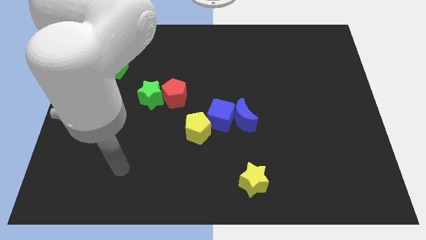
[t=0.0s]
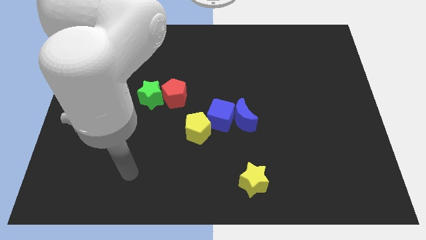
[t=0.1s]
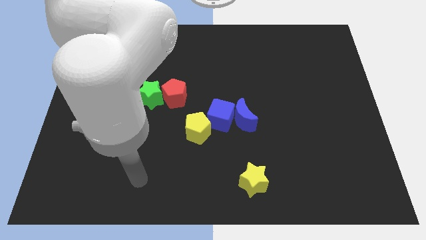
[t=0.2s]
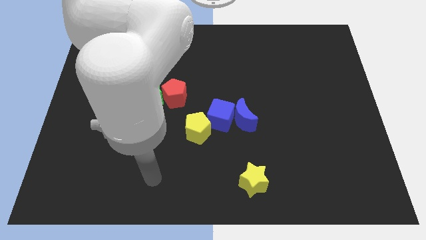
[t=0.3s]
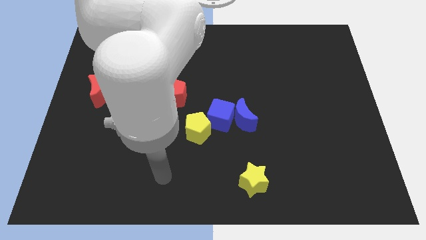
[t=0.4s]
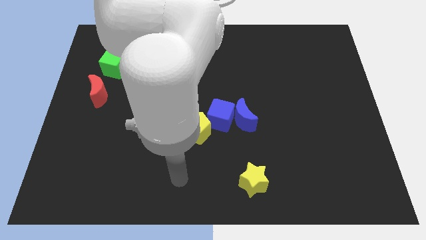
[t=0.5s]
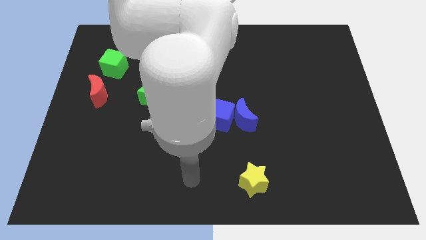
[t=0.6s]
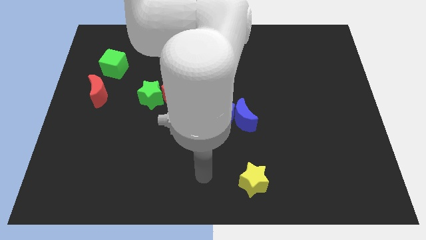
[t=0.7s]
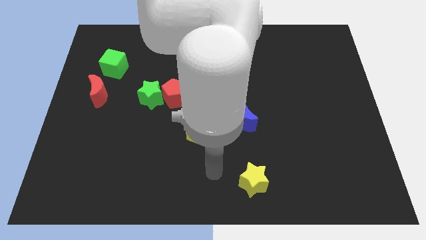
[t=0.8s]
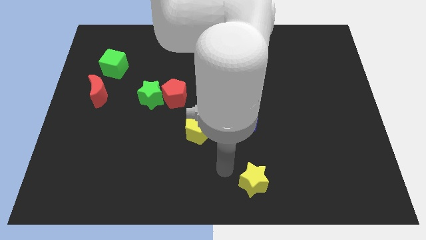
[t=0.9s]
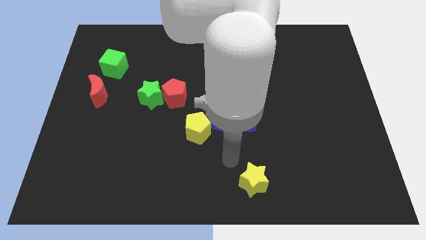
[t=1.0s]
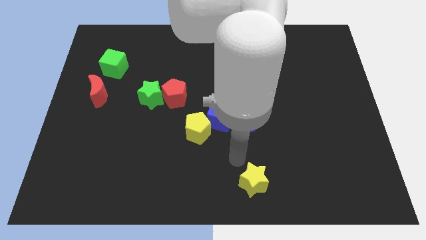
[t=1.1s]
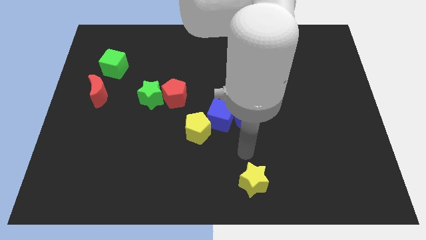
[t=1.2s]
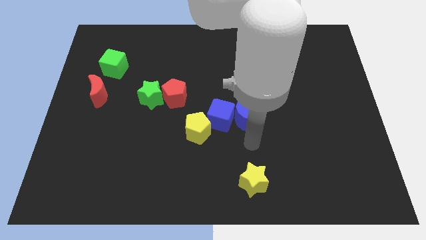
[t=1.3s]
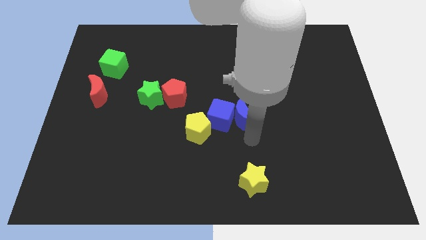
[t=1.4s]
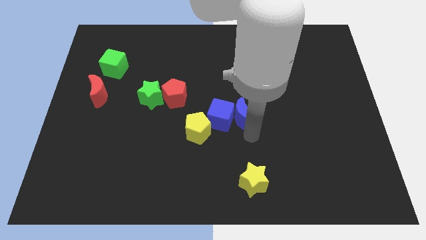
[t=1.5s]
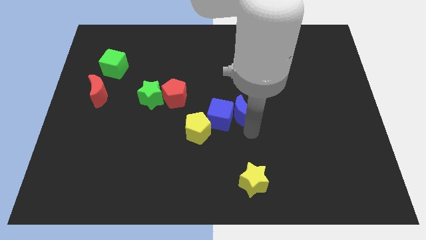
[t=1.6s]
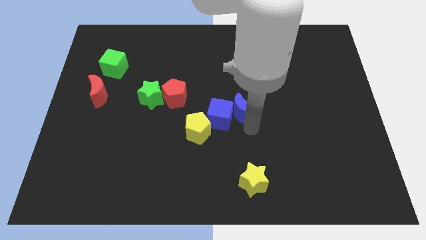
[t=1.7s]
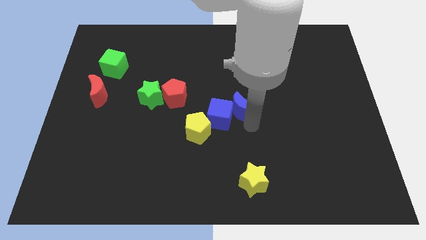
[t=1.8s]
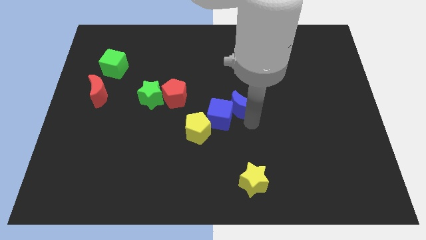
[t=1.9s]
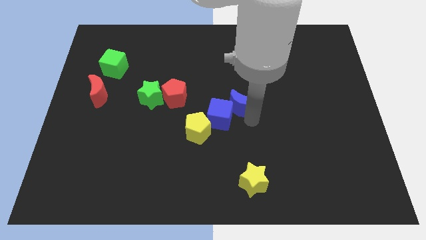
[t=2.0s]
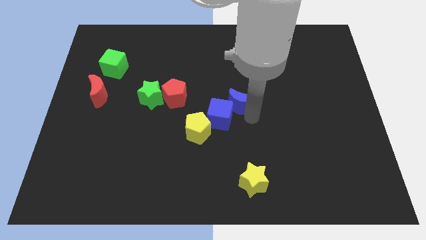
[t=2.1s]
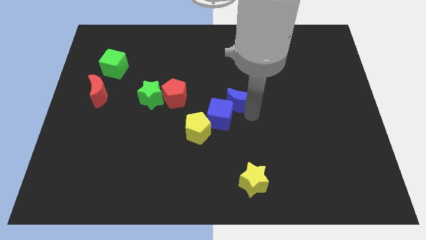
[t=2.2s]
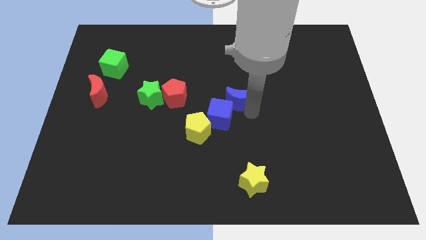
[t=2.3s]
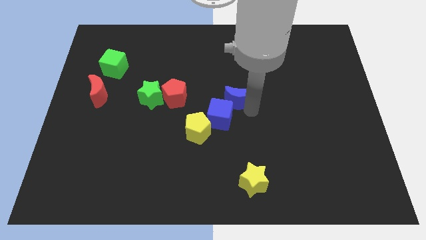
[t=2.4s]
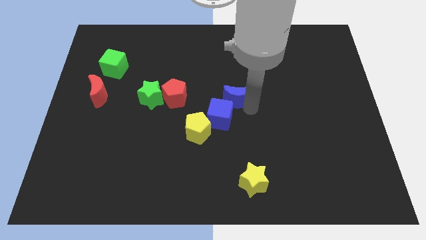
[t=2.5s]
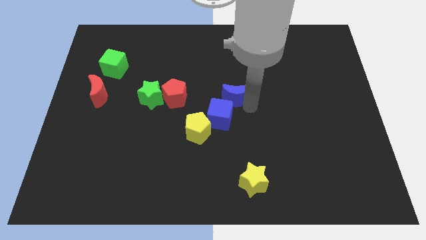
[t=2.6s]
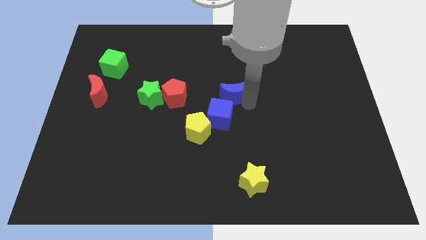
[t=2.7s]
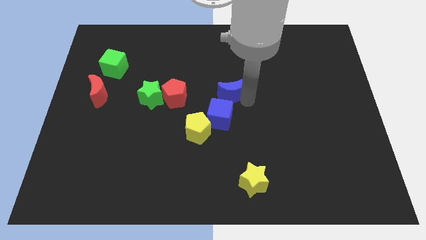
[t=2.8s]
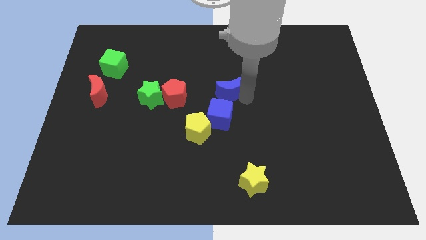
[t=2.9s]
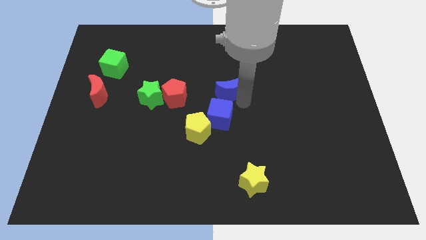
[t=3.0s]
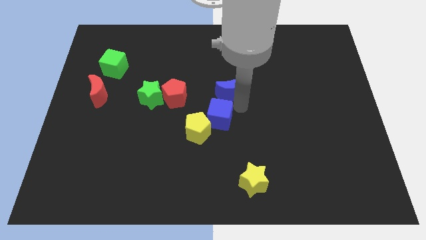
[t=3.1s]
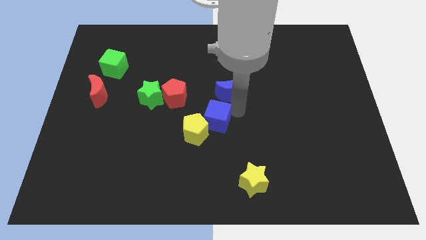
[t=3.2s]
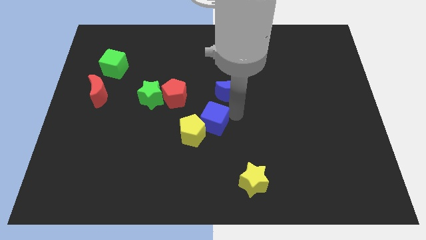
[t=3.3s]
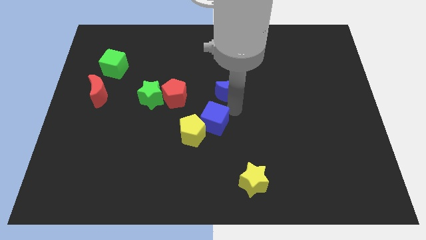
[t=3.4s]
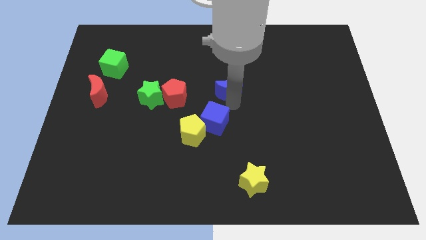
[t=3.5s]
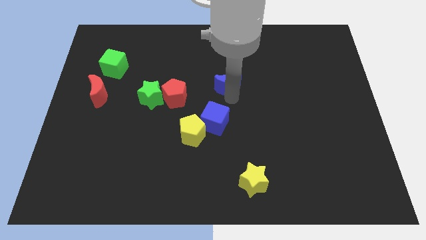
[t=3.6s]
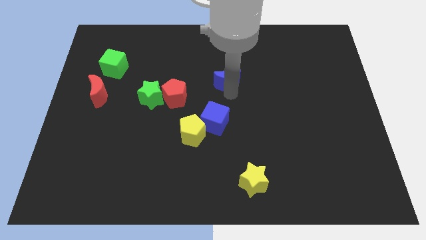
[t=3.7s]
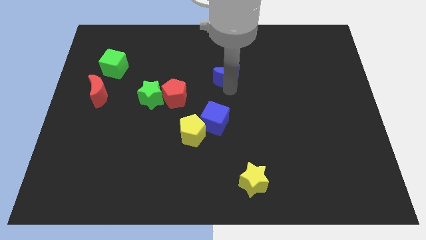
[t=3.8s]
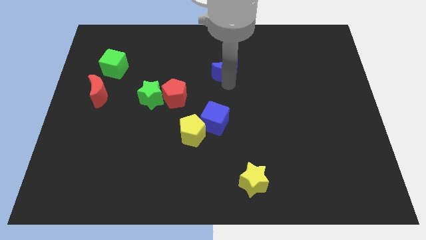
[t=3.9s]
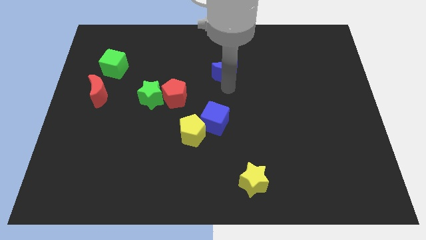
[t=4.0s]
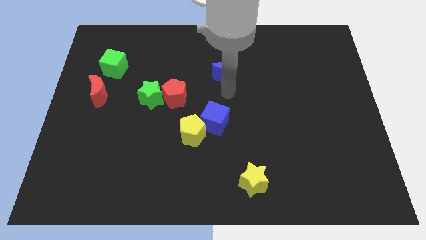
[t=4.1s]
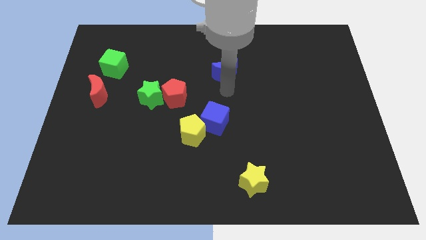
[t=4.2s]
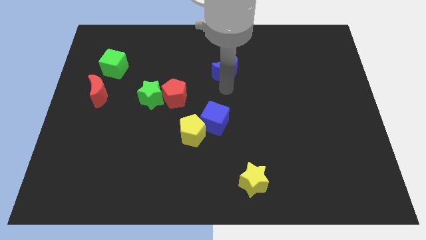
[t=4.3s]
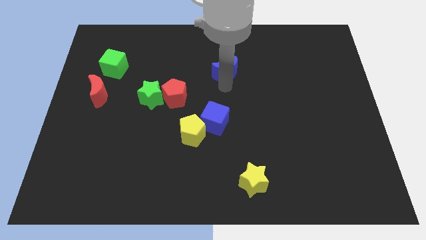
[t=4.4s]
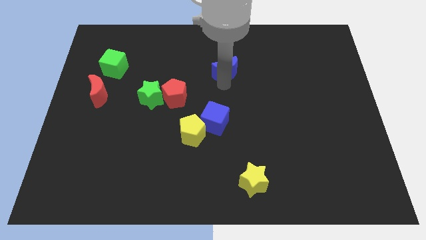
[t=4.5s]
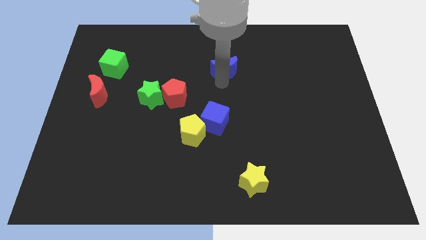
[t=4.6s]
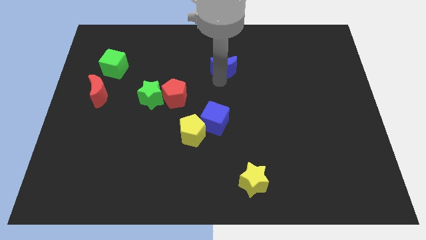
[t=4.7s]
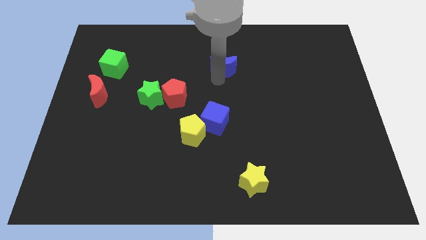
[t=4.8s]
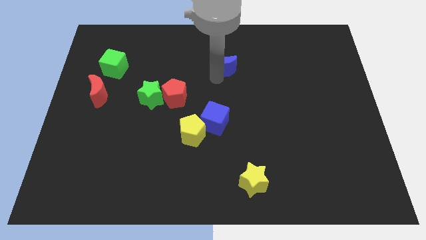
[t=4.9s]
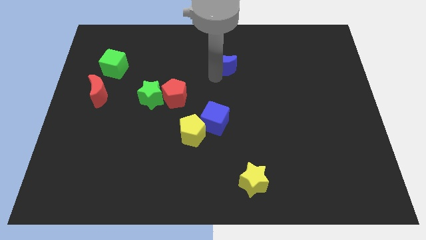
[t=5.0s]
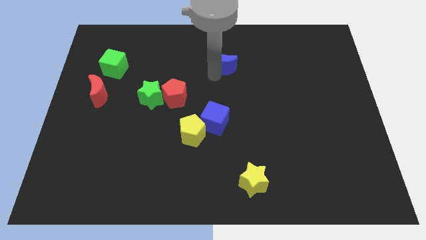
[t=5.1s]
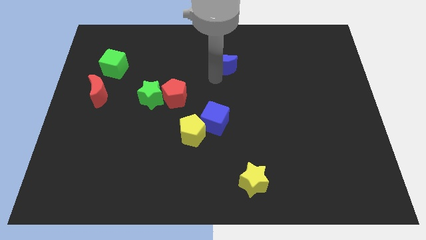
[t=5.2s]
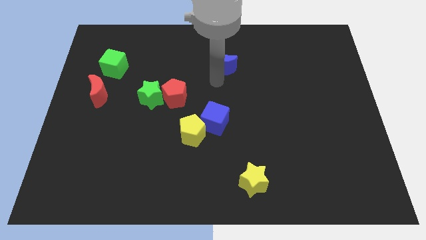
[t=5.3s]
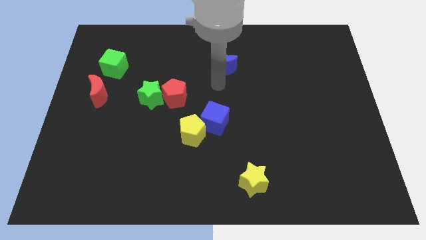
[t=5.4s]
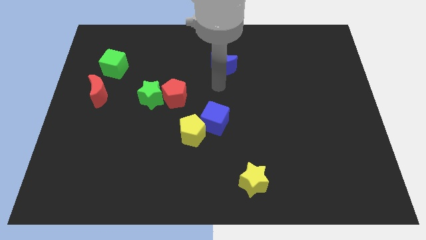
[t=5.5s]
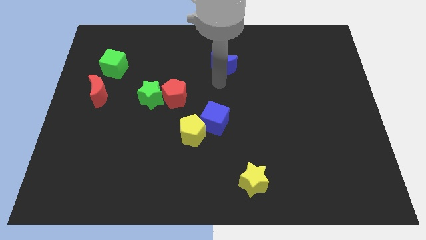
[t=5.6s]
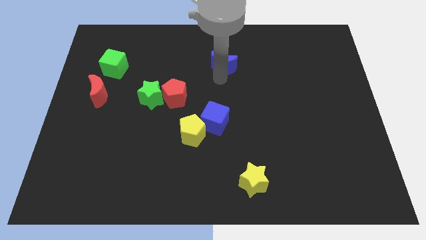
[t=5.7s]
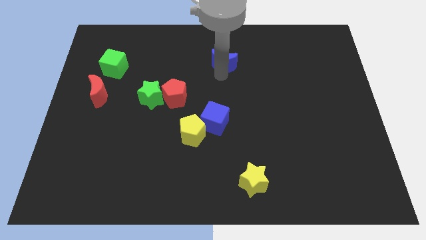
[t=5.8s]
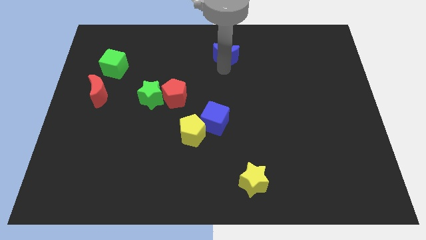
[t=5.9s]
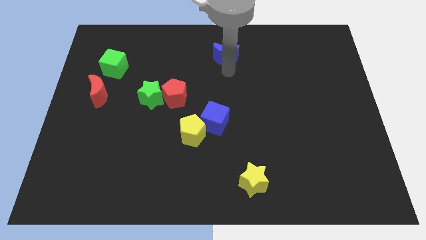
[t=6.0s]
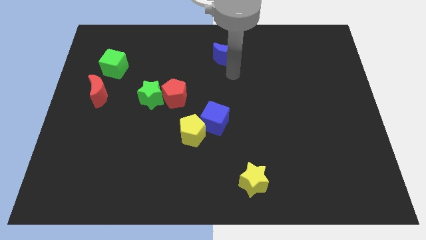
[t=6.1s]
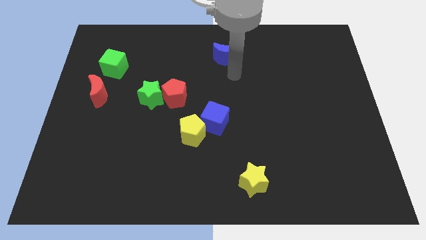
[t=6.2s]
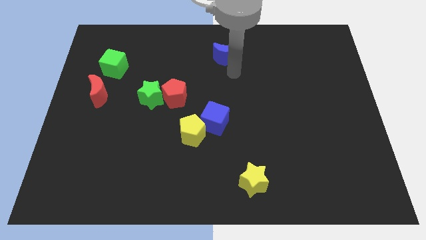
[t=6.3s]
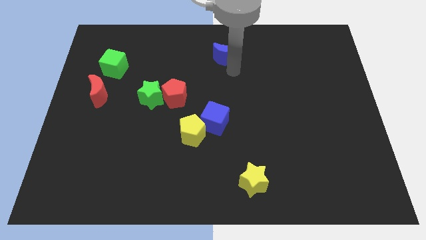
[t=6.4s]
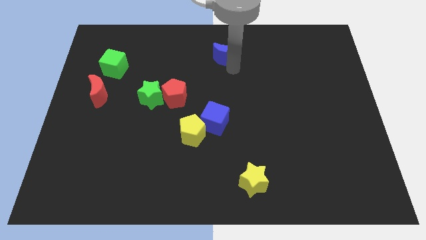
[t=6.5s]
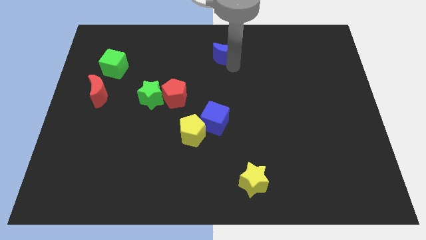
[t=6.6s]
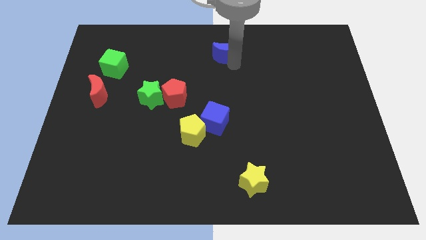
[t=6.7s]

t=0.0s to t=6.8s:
put the blue moon to the top side
